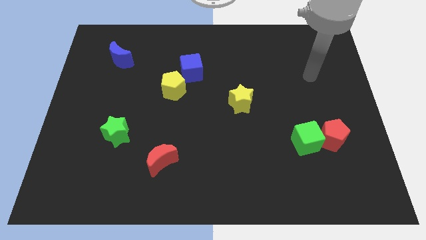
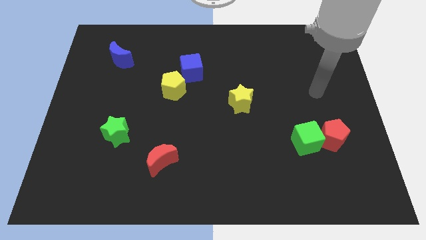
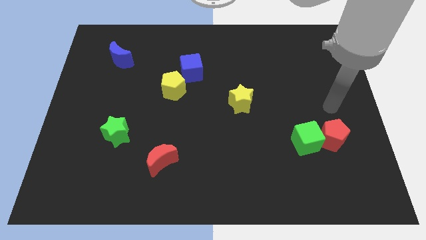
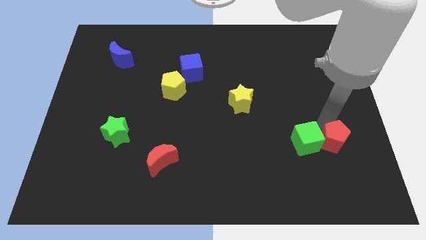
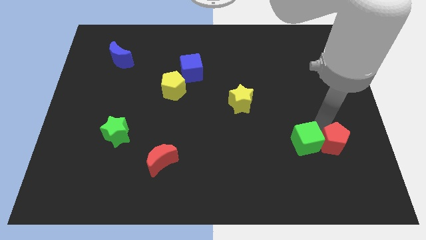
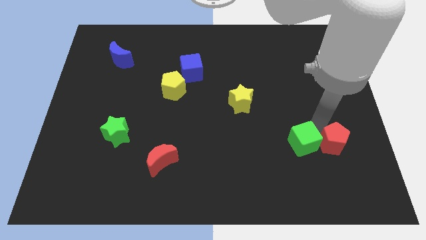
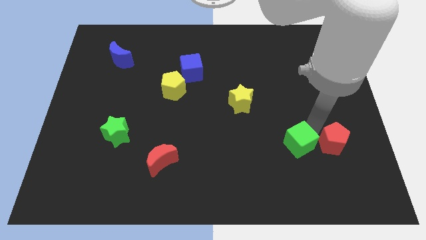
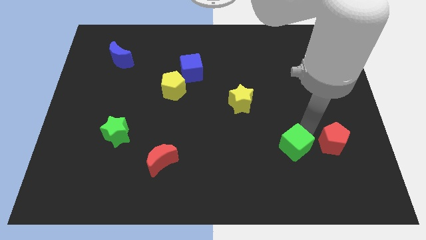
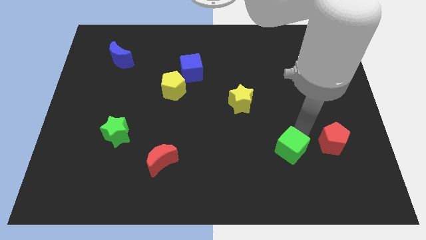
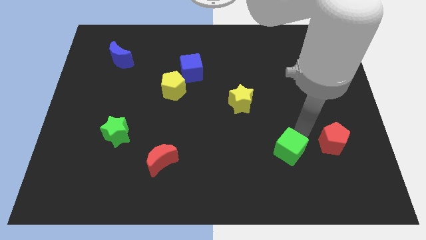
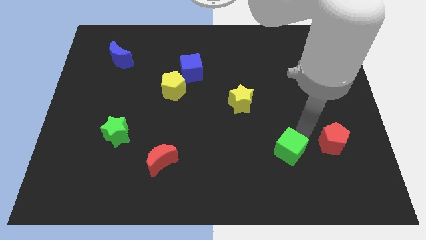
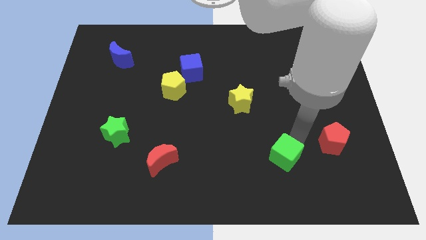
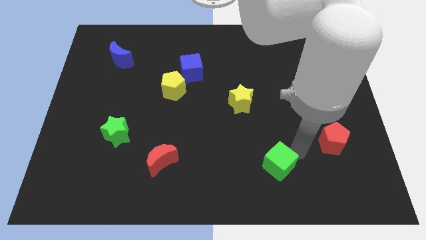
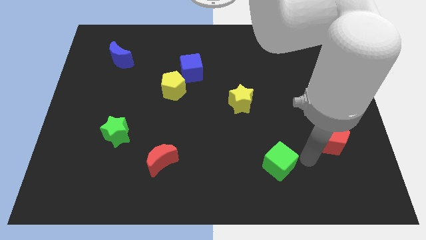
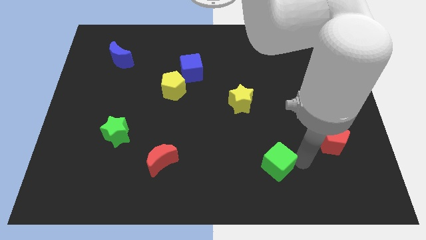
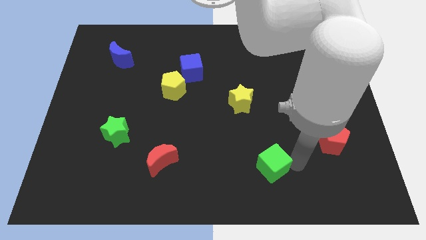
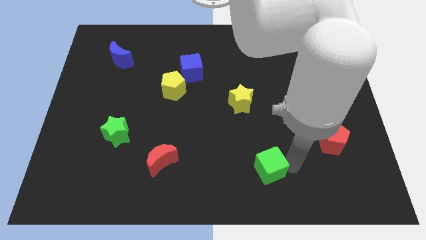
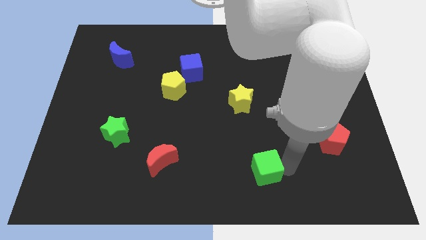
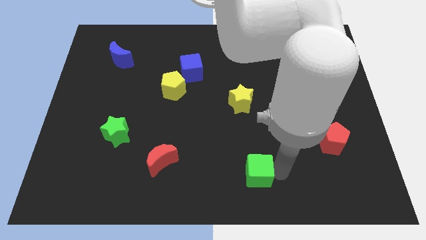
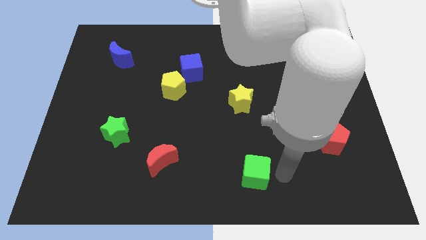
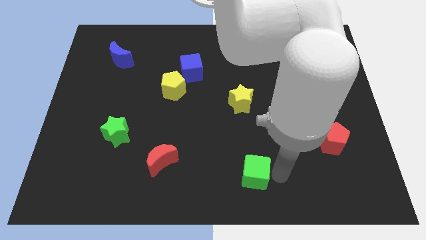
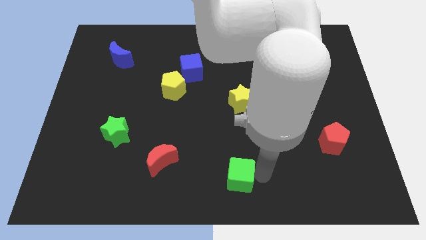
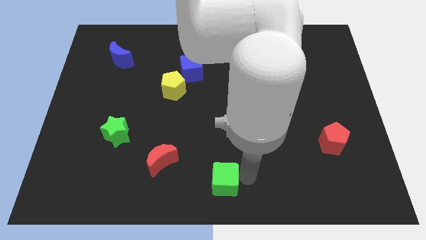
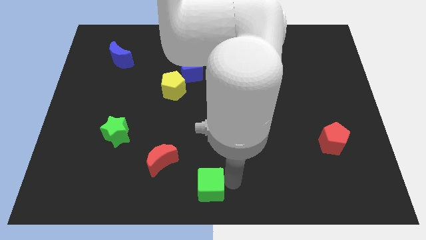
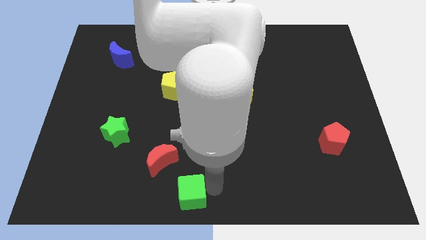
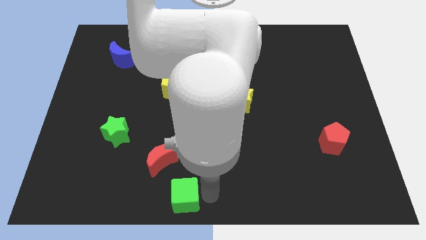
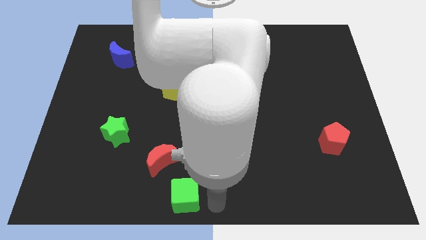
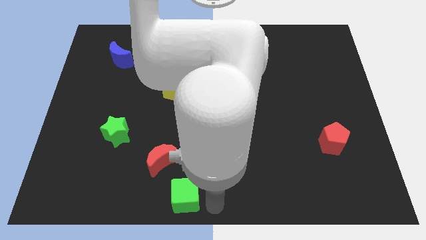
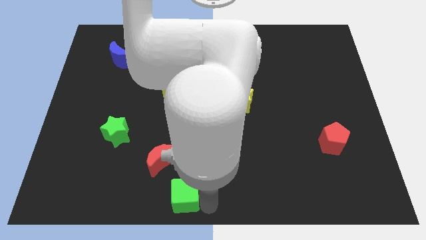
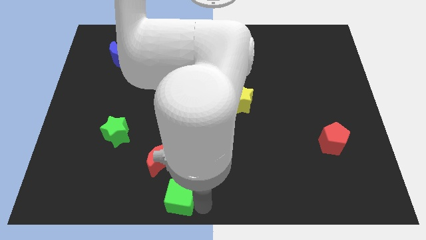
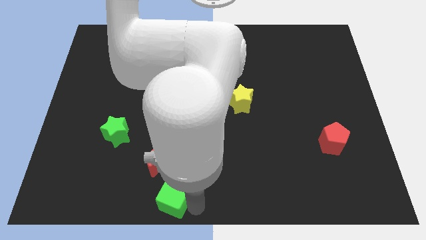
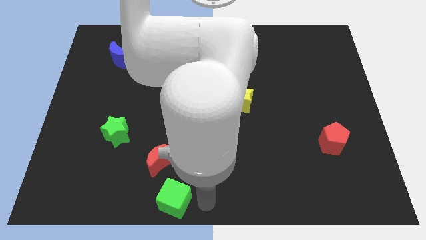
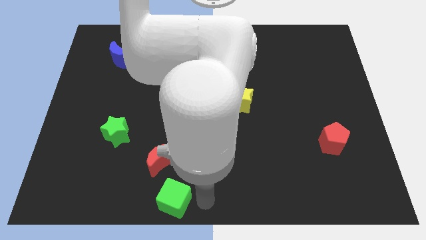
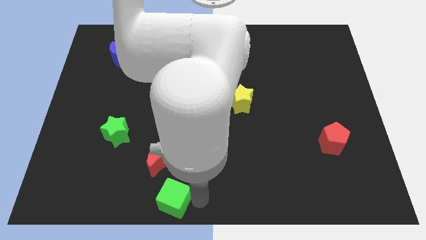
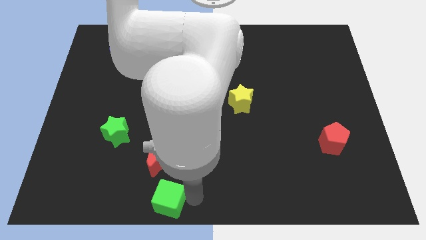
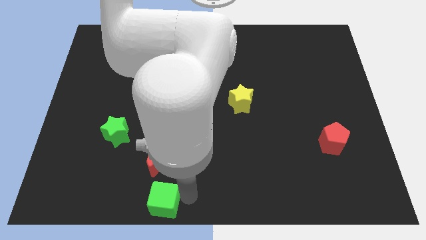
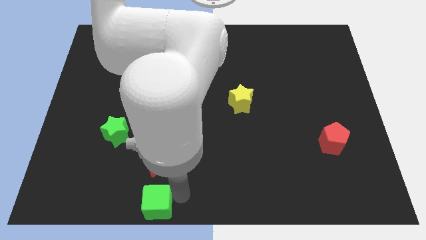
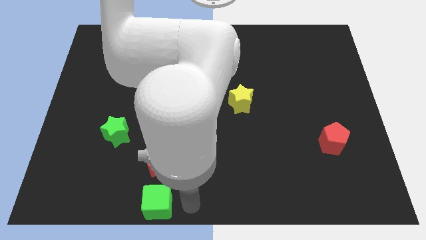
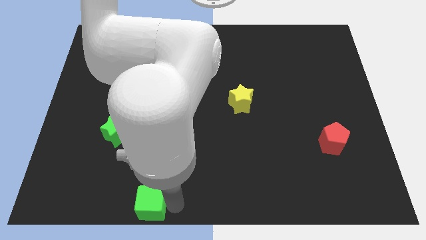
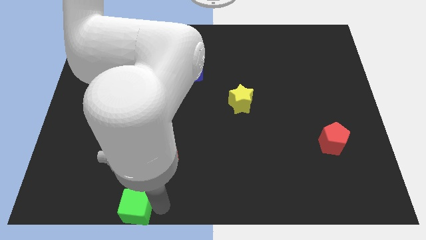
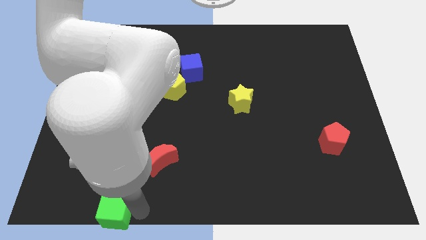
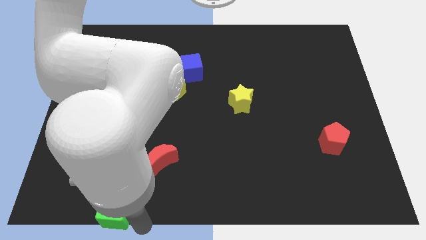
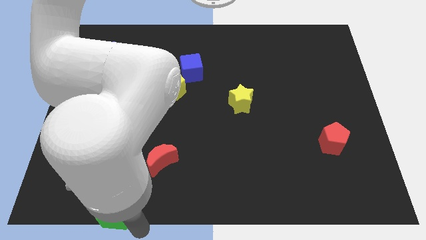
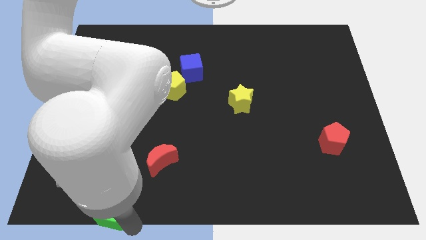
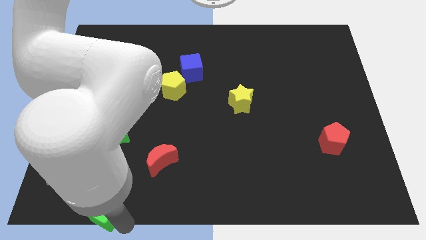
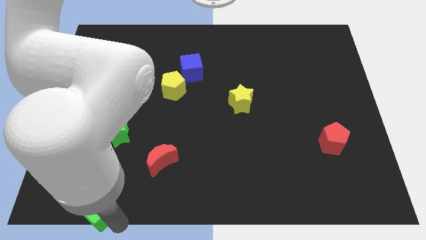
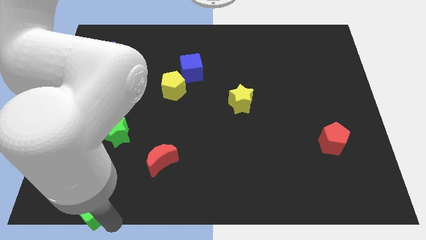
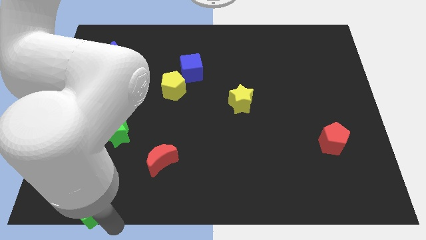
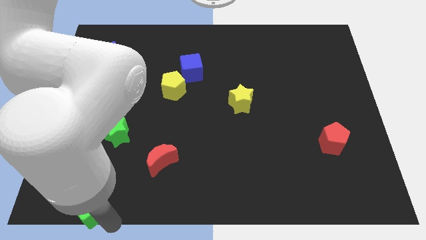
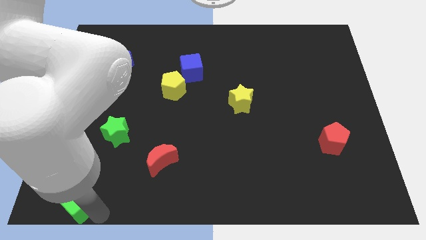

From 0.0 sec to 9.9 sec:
push the green cube to the bottom left of the board

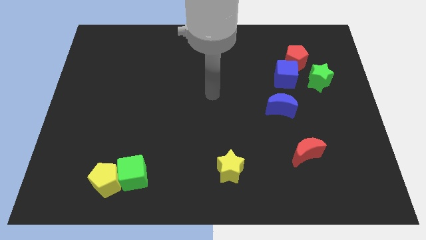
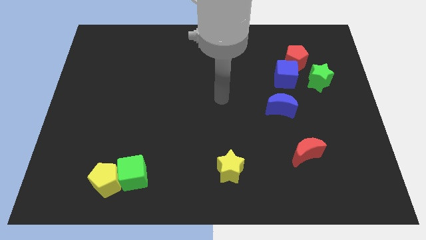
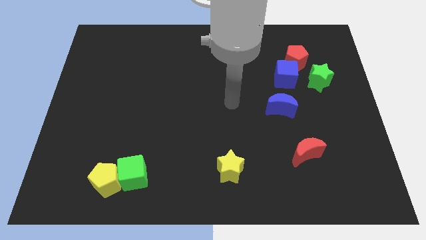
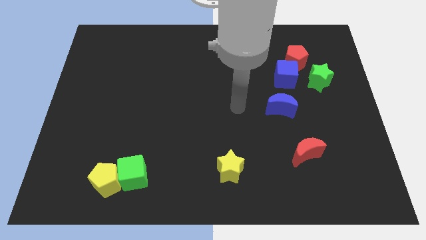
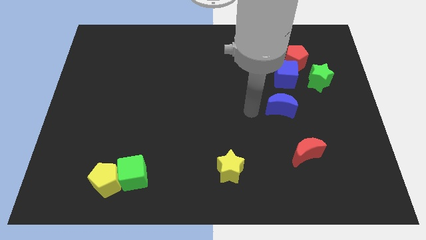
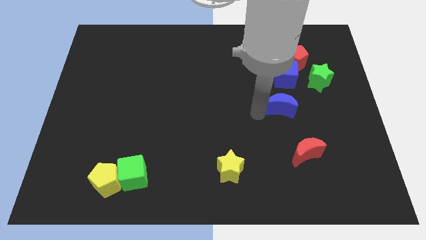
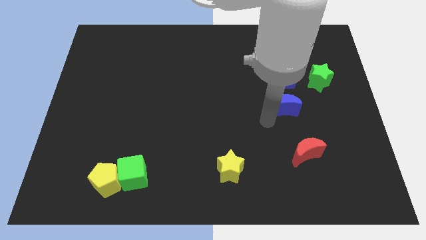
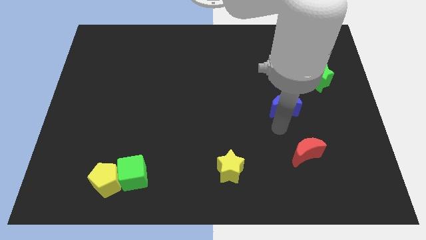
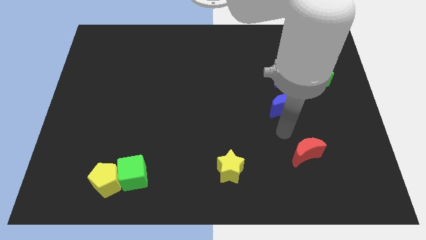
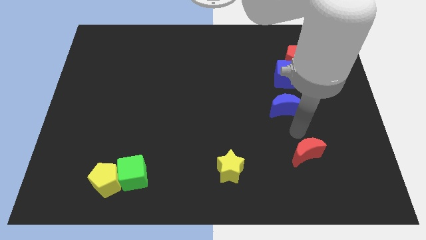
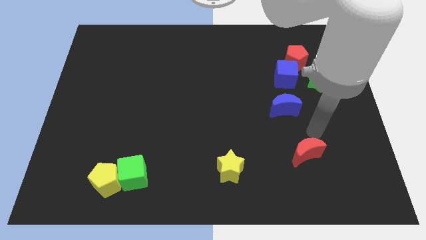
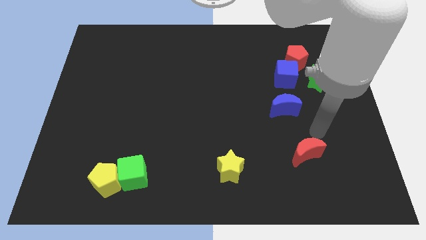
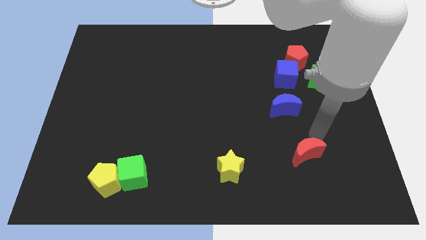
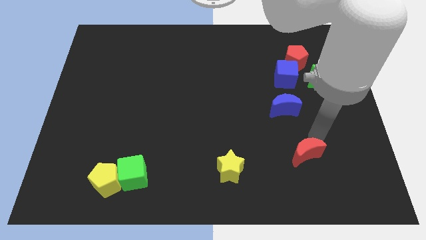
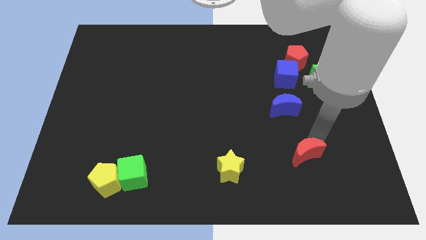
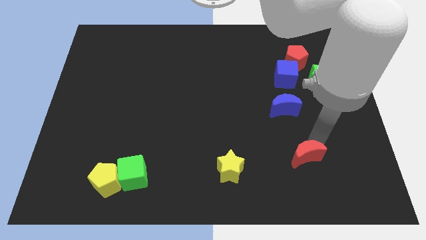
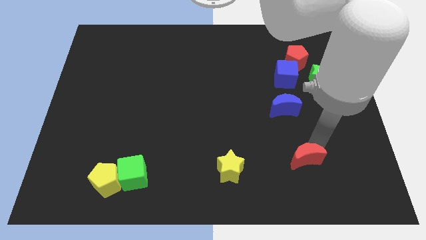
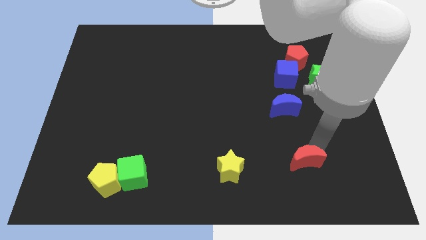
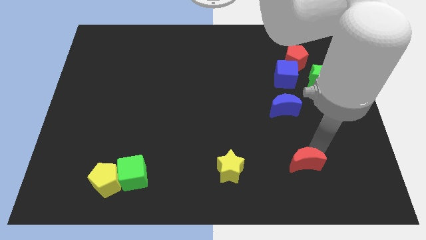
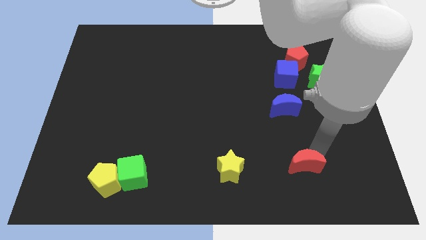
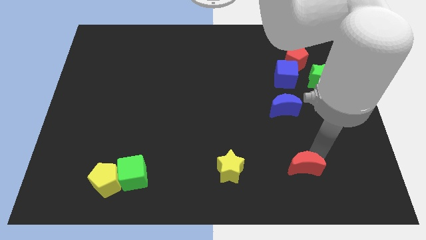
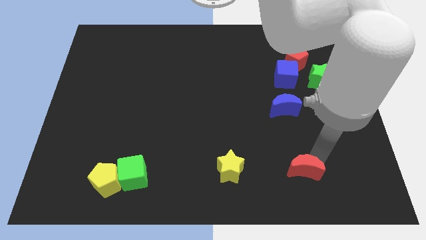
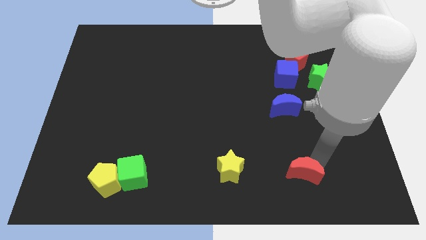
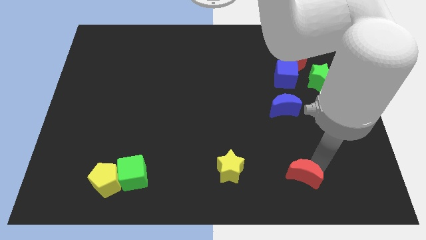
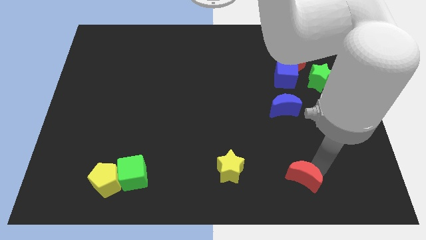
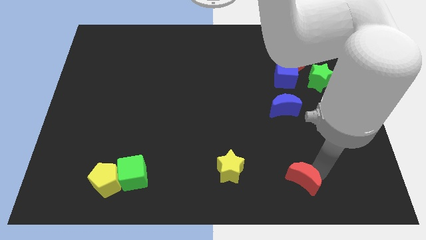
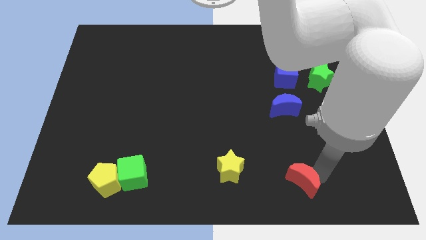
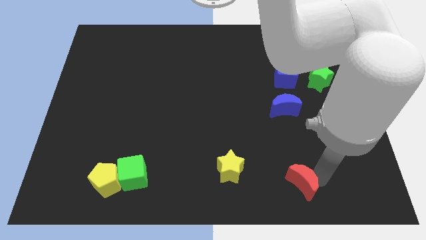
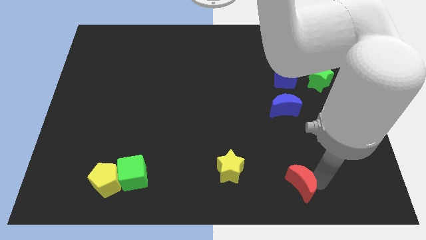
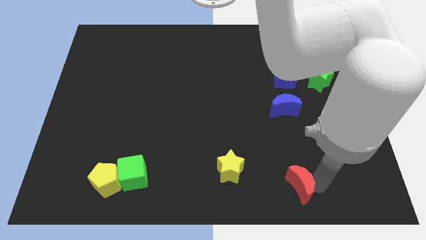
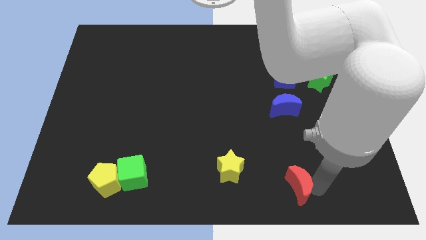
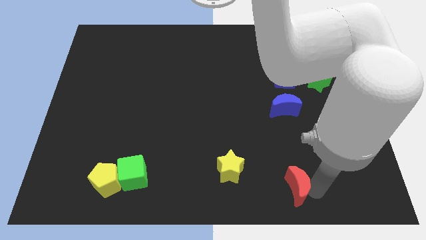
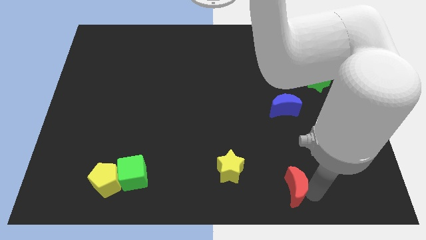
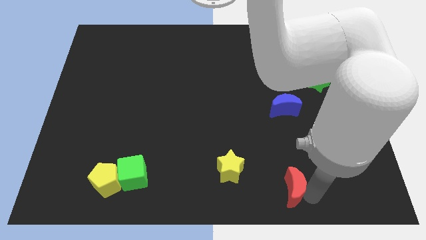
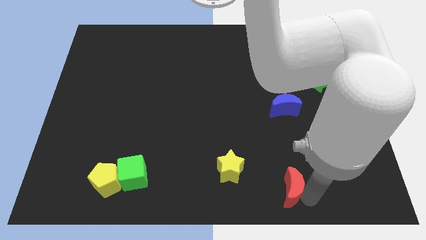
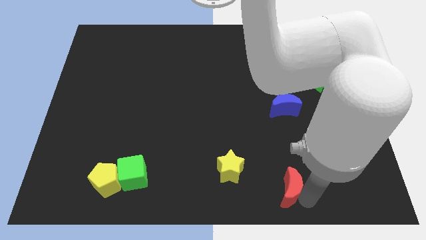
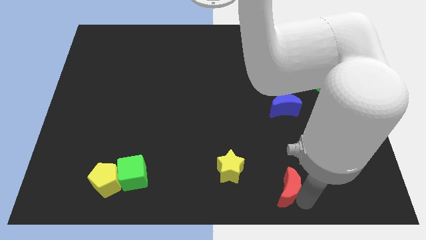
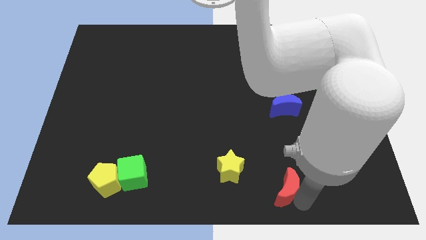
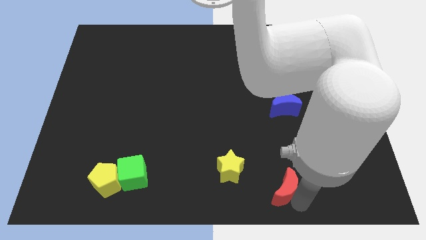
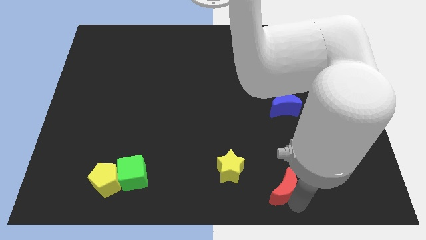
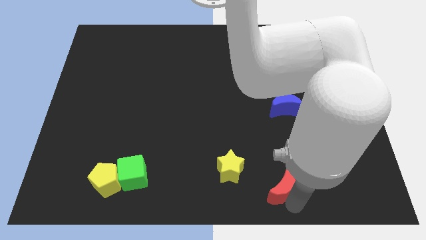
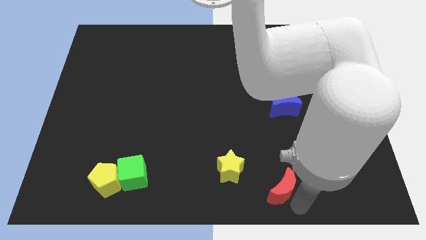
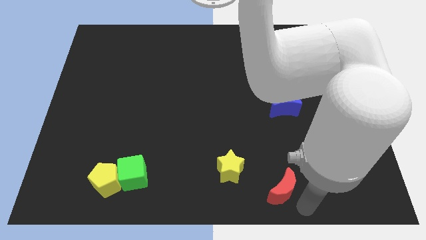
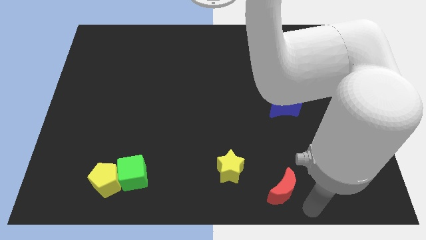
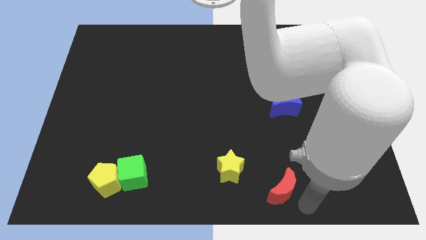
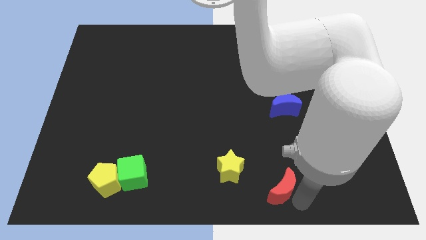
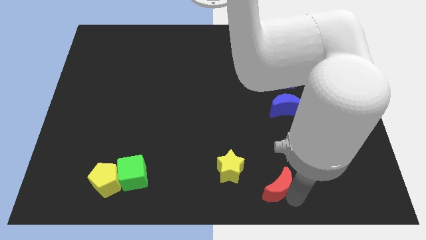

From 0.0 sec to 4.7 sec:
put the red moon to the bottom side
